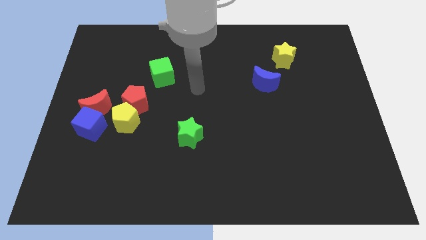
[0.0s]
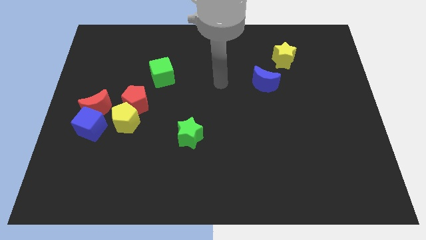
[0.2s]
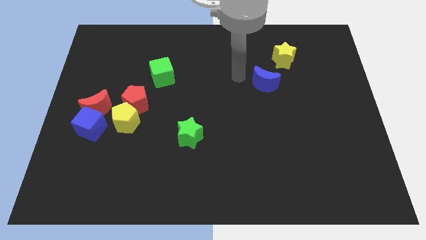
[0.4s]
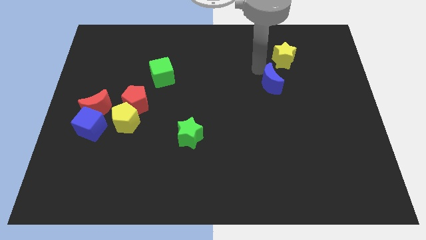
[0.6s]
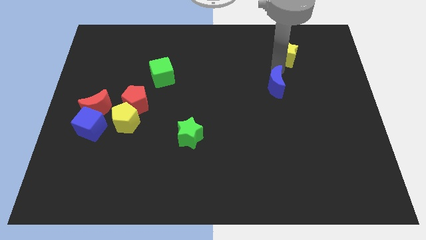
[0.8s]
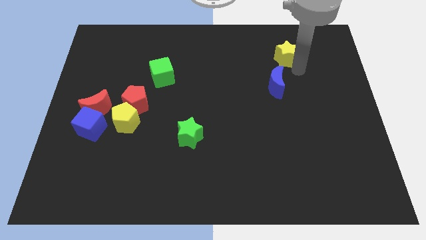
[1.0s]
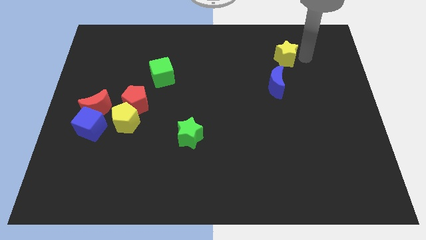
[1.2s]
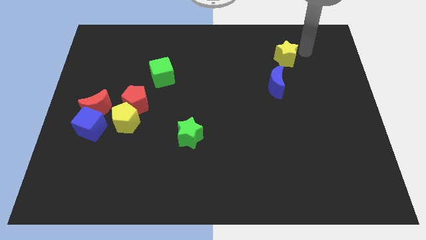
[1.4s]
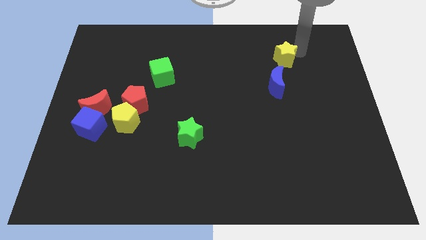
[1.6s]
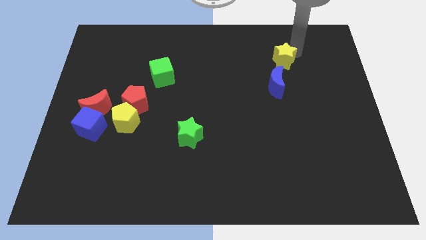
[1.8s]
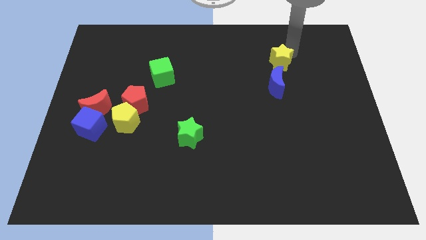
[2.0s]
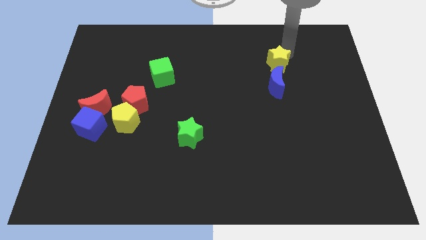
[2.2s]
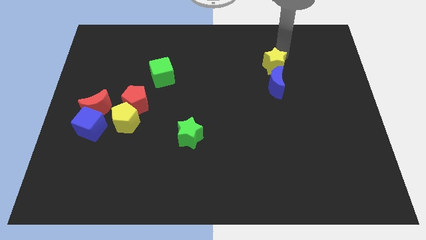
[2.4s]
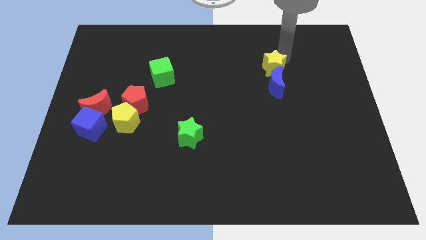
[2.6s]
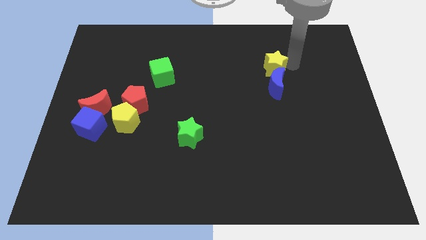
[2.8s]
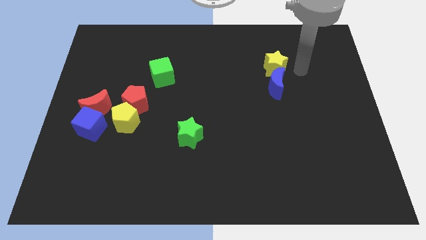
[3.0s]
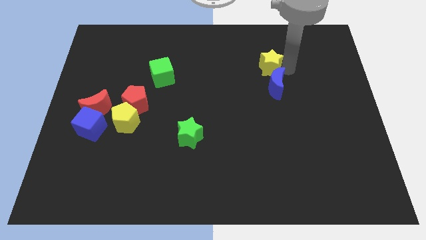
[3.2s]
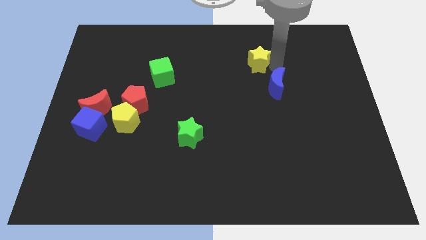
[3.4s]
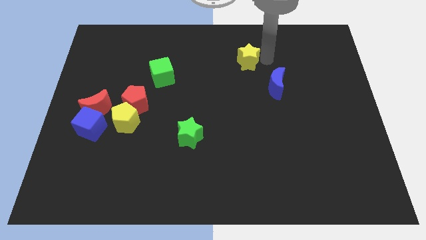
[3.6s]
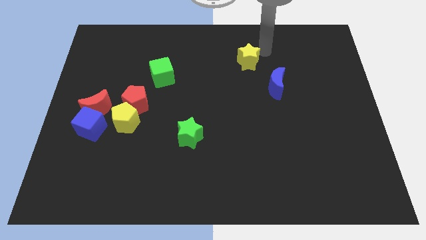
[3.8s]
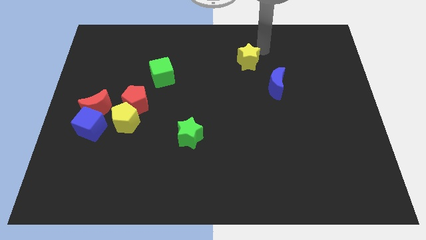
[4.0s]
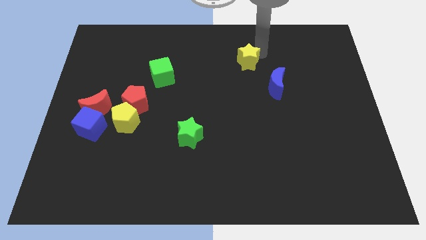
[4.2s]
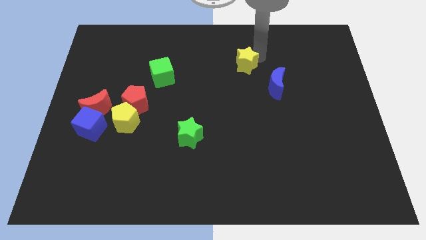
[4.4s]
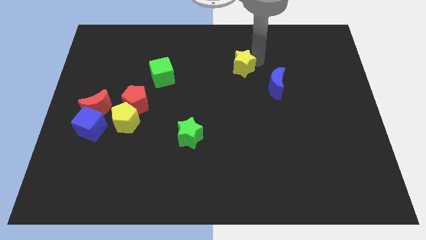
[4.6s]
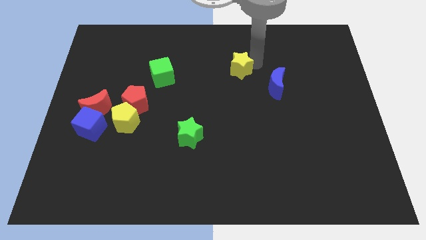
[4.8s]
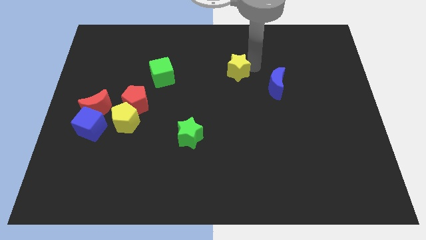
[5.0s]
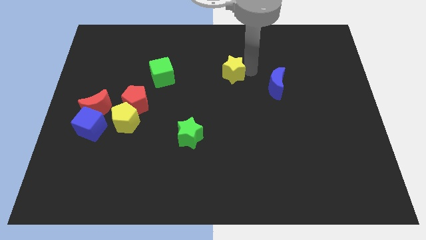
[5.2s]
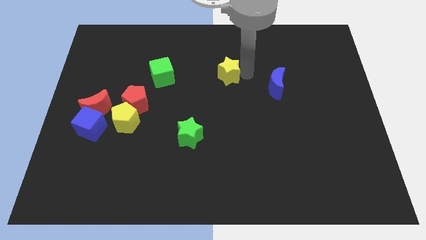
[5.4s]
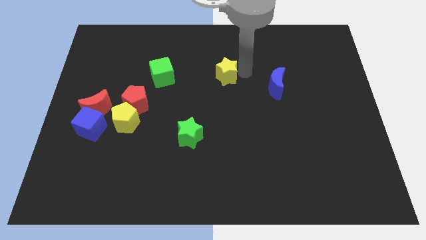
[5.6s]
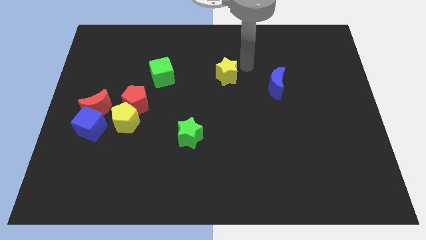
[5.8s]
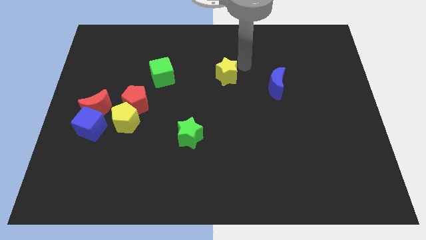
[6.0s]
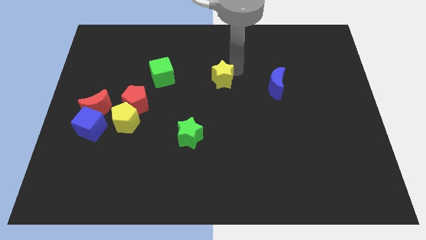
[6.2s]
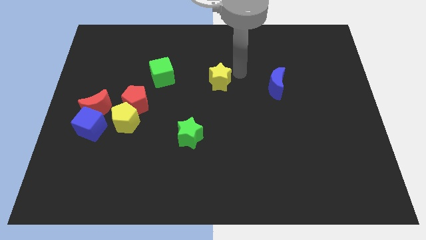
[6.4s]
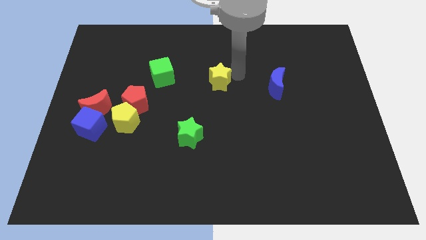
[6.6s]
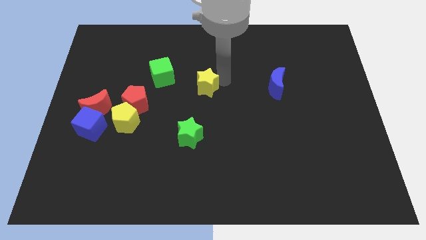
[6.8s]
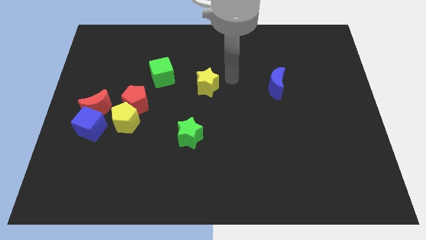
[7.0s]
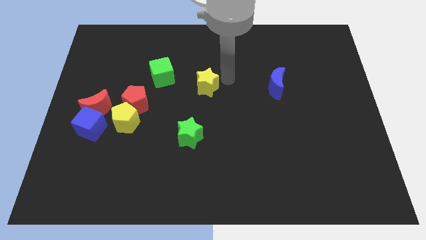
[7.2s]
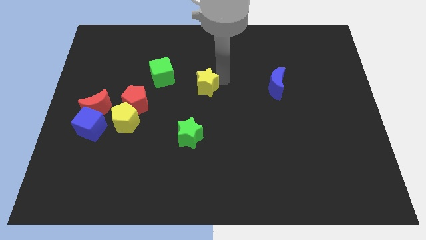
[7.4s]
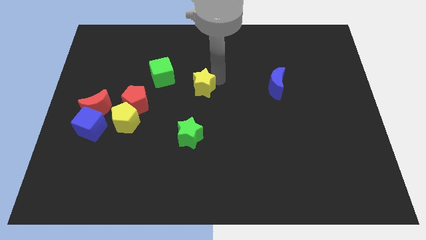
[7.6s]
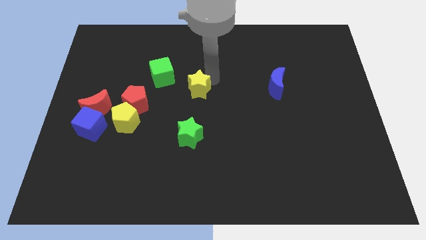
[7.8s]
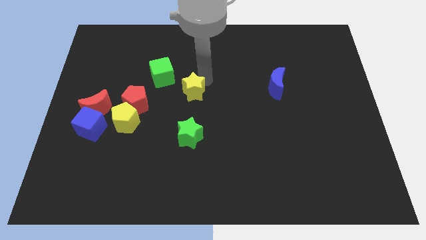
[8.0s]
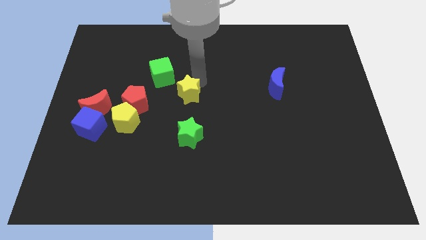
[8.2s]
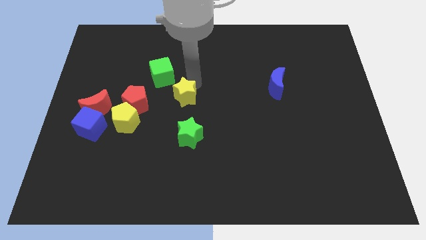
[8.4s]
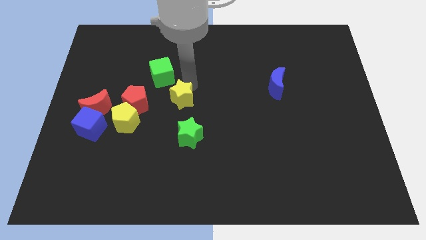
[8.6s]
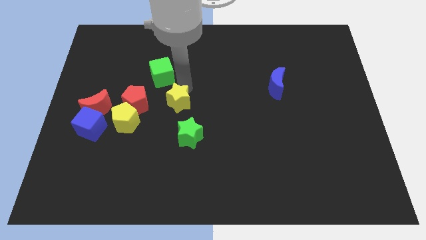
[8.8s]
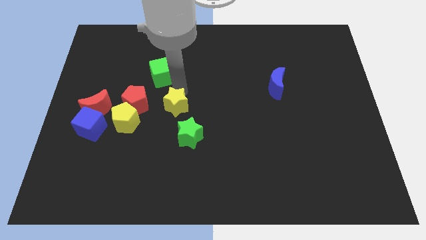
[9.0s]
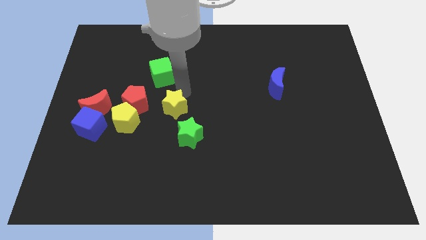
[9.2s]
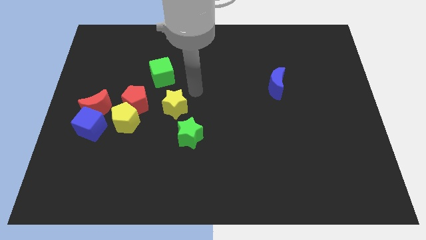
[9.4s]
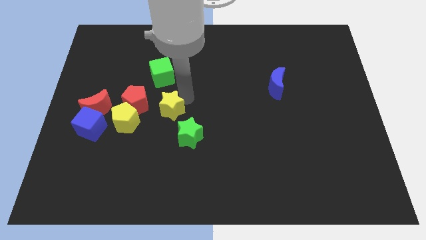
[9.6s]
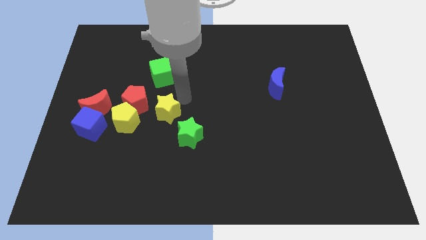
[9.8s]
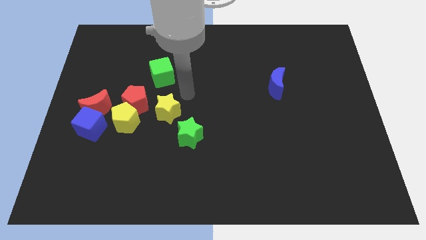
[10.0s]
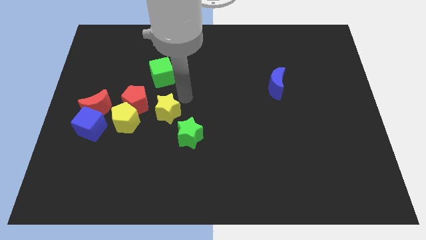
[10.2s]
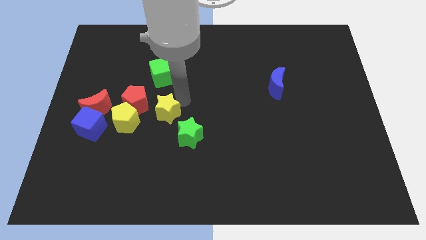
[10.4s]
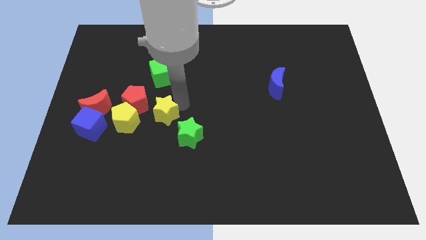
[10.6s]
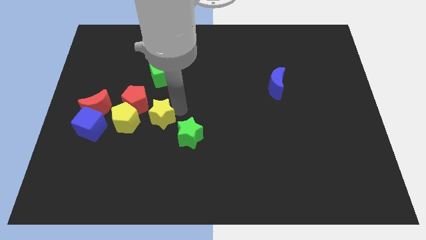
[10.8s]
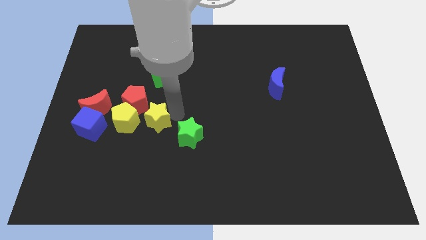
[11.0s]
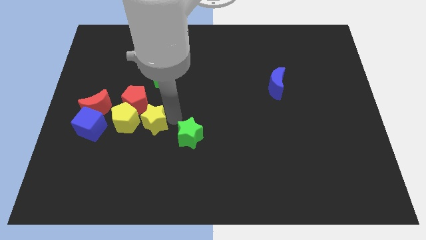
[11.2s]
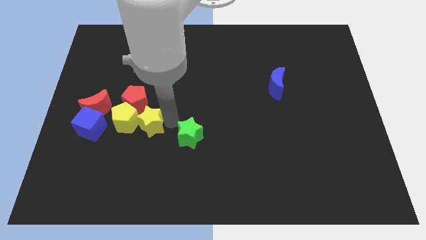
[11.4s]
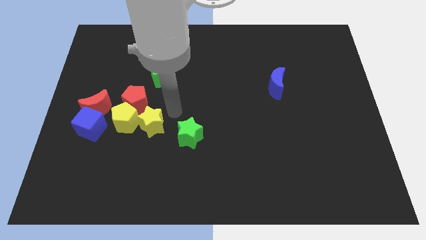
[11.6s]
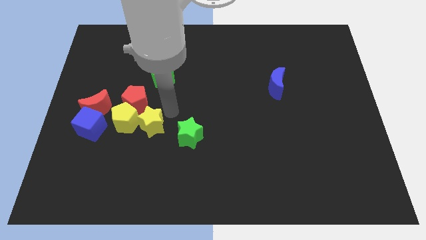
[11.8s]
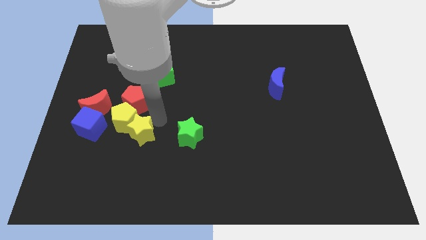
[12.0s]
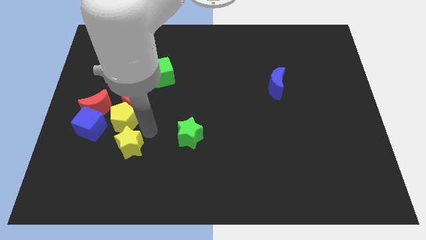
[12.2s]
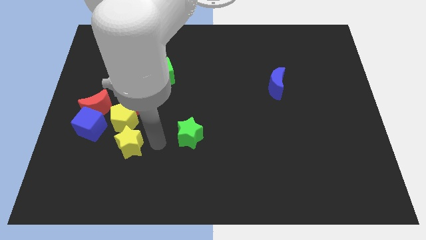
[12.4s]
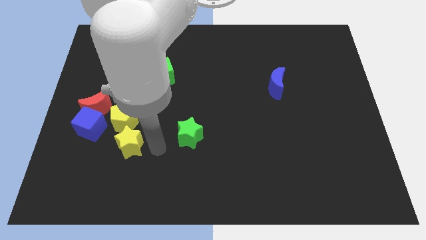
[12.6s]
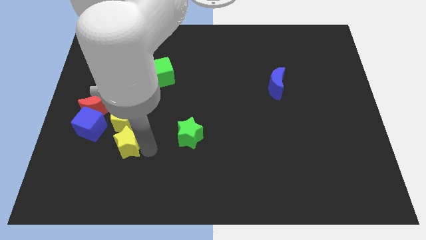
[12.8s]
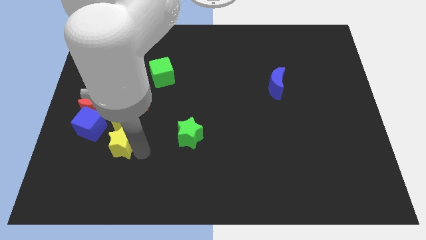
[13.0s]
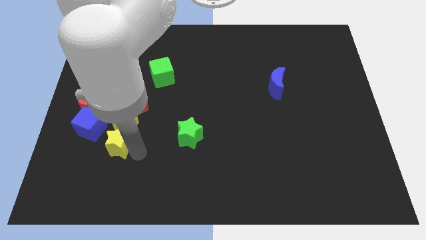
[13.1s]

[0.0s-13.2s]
move the yellow star diagonally down and to the left of the yellow pentagon

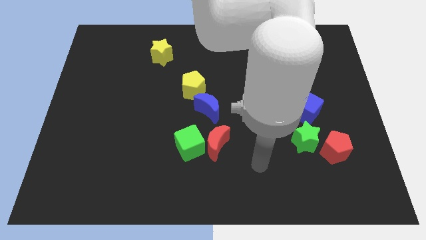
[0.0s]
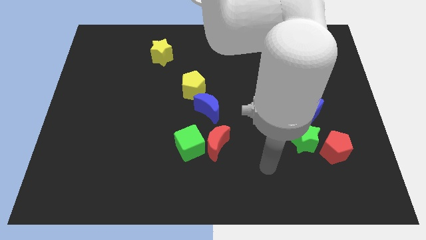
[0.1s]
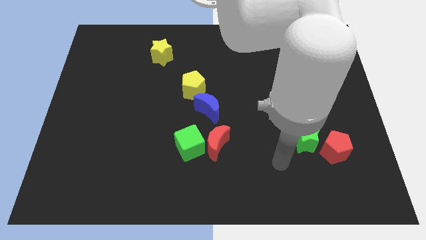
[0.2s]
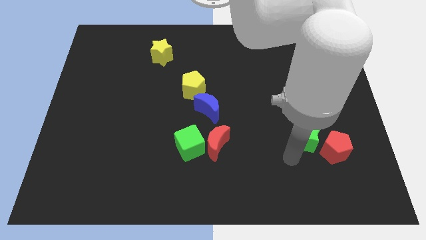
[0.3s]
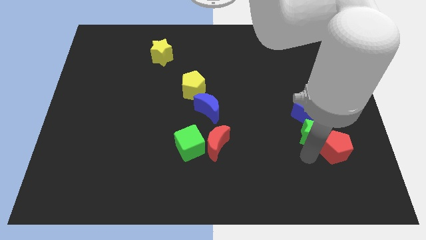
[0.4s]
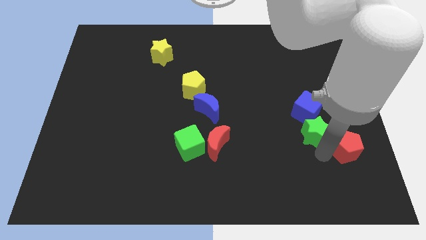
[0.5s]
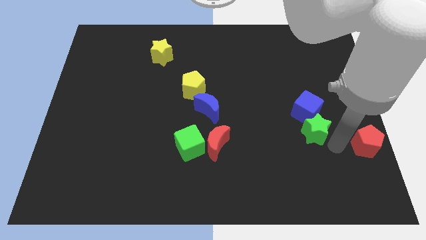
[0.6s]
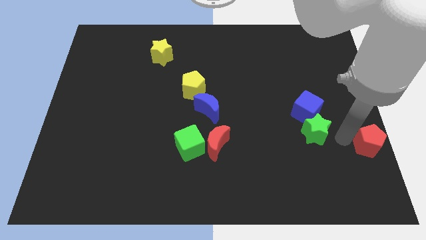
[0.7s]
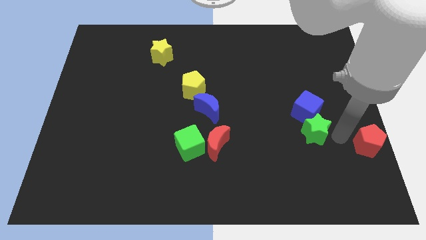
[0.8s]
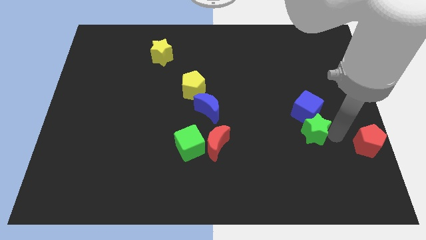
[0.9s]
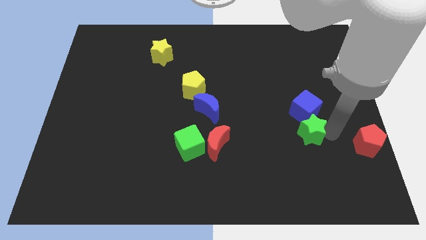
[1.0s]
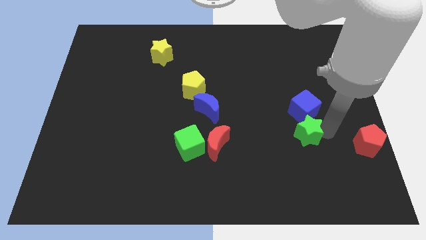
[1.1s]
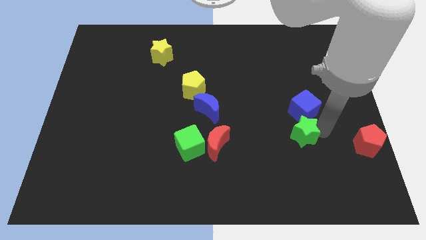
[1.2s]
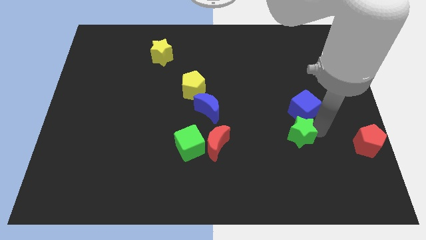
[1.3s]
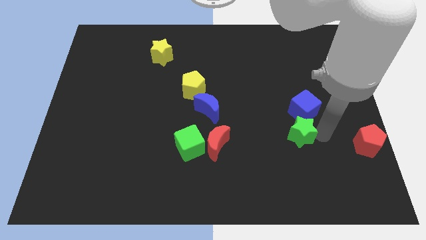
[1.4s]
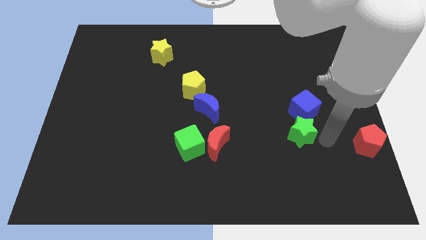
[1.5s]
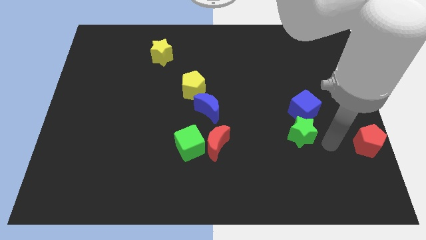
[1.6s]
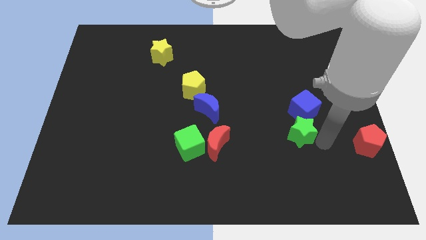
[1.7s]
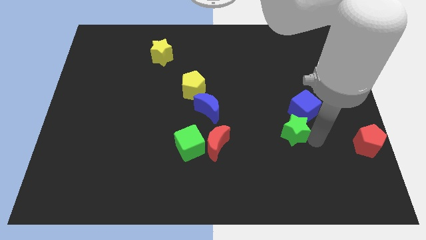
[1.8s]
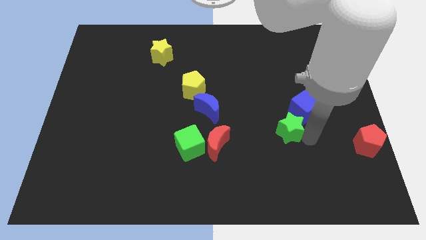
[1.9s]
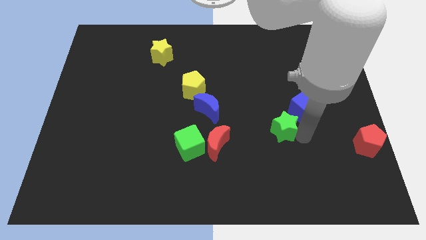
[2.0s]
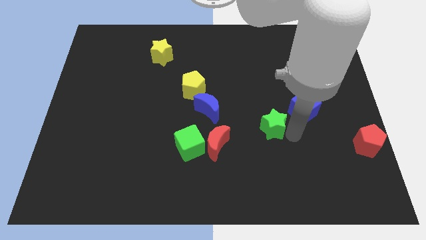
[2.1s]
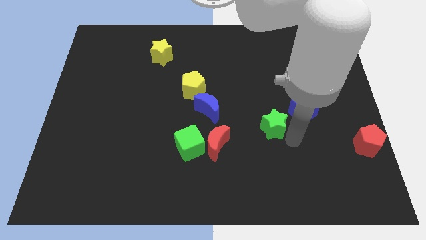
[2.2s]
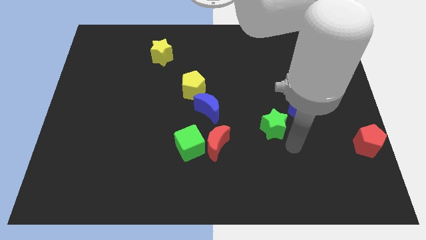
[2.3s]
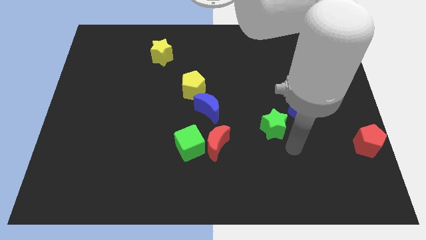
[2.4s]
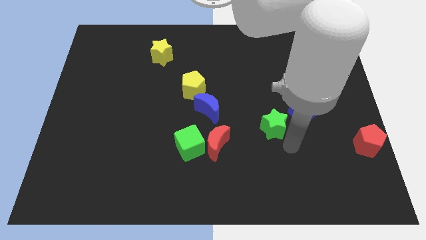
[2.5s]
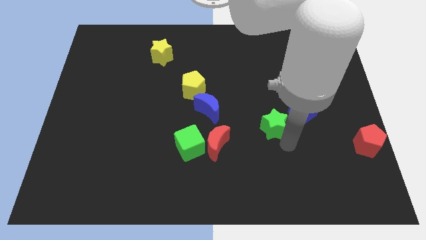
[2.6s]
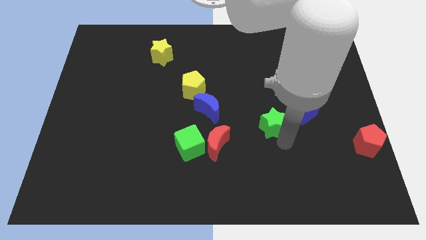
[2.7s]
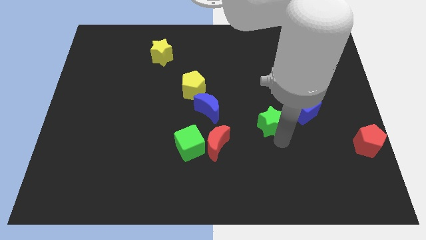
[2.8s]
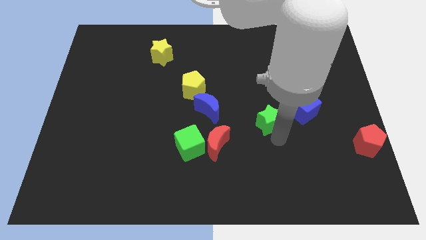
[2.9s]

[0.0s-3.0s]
move the green star just right of the blue moon
